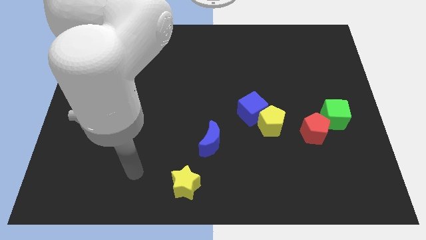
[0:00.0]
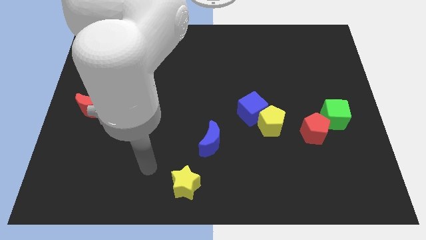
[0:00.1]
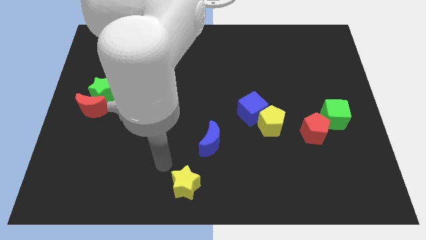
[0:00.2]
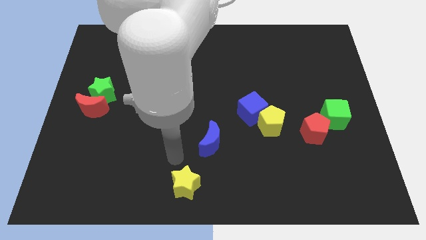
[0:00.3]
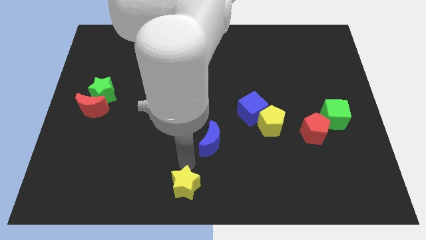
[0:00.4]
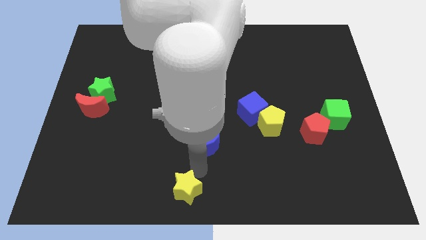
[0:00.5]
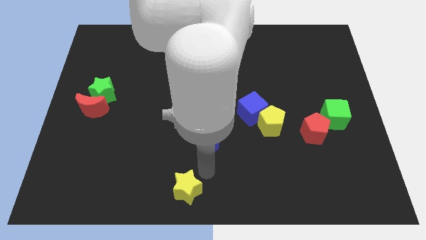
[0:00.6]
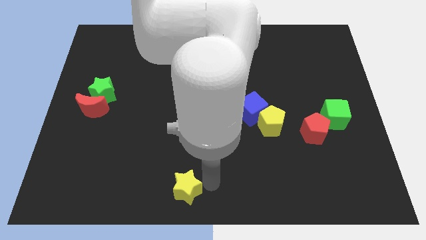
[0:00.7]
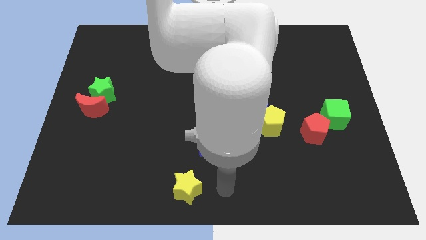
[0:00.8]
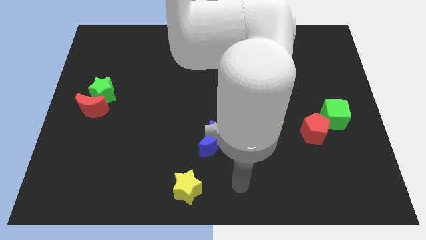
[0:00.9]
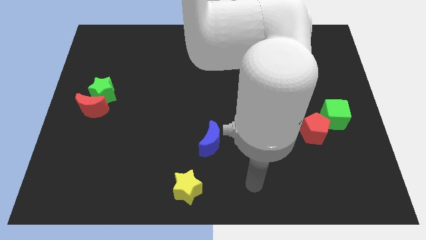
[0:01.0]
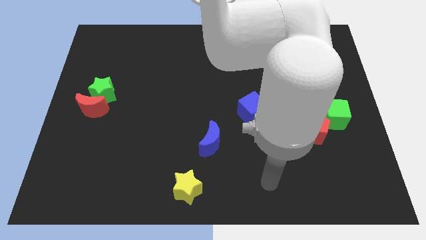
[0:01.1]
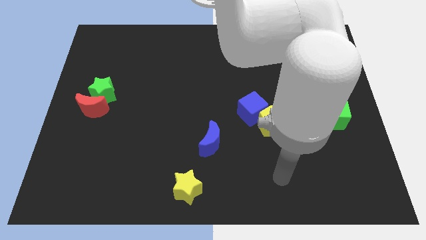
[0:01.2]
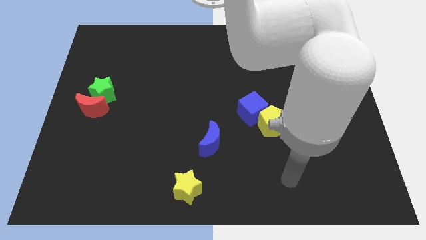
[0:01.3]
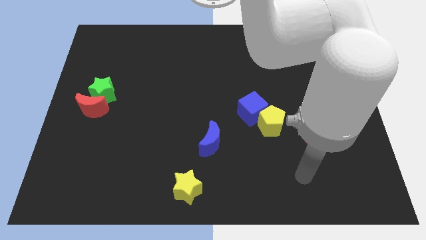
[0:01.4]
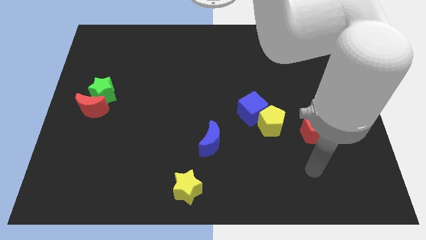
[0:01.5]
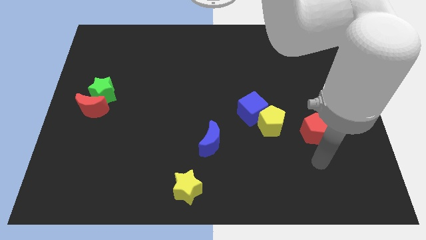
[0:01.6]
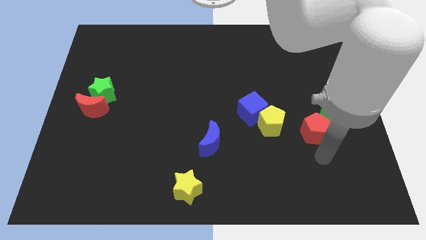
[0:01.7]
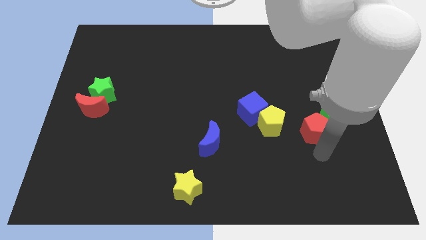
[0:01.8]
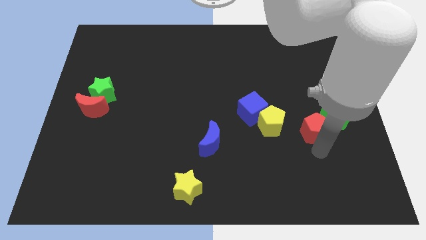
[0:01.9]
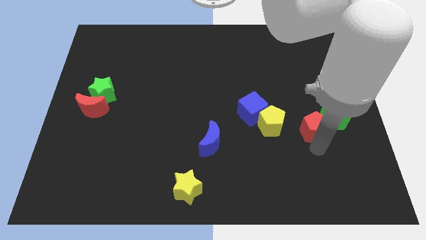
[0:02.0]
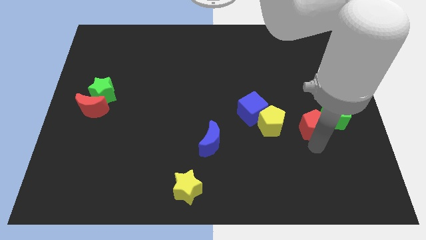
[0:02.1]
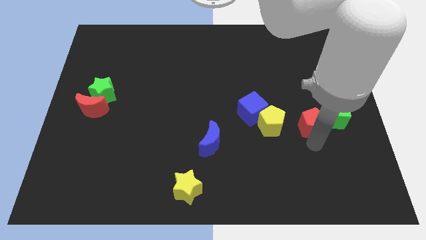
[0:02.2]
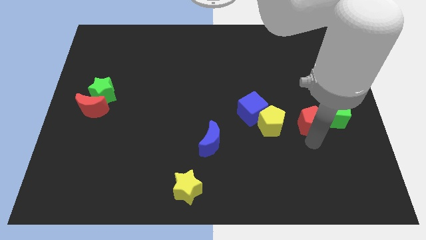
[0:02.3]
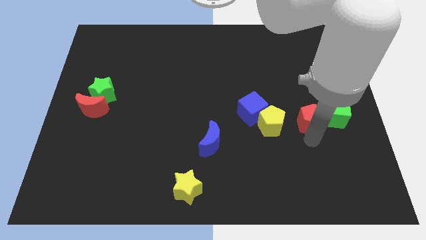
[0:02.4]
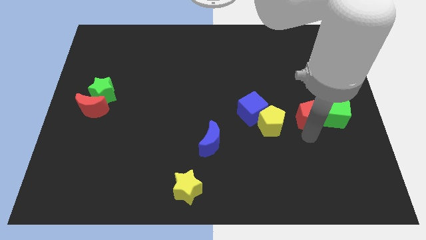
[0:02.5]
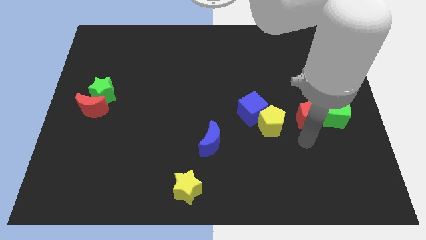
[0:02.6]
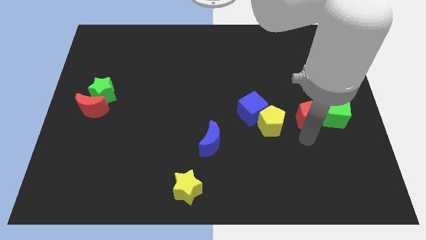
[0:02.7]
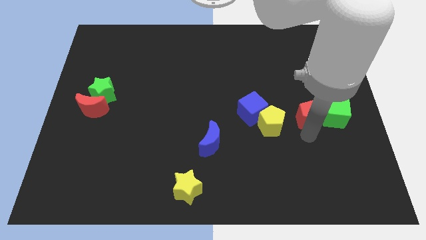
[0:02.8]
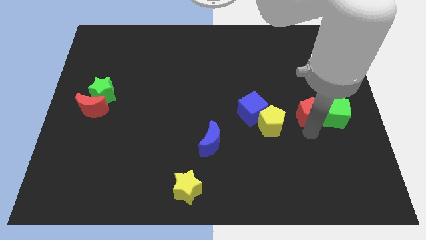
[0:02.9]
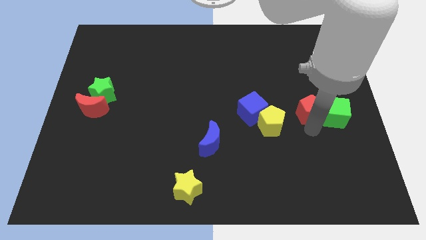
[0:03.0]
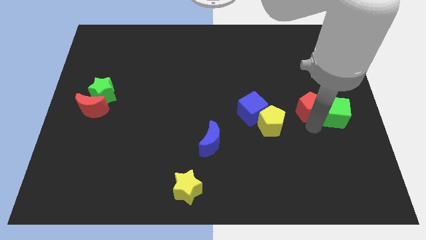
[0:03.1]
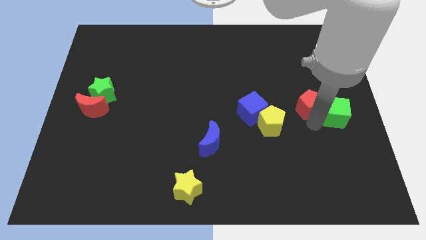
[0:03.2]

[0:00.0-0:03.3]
push the red pentagon upwards a little

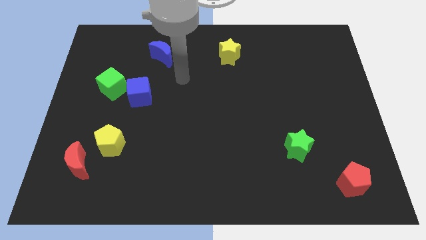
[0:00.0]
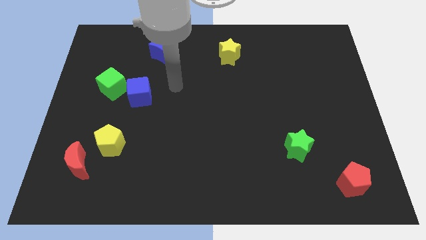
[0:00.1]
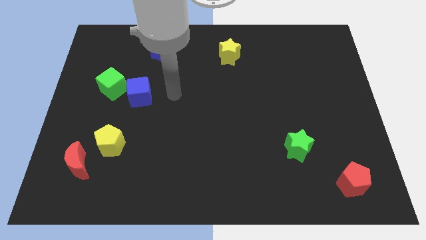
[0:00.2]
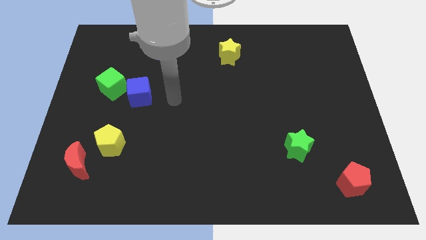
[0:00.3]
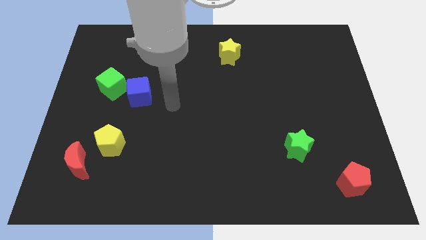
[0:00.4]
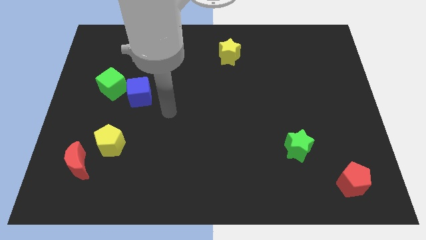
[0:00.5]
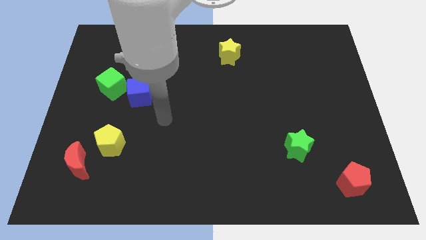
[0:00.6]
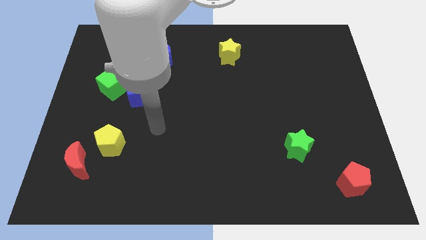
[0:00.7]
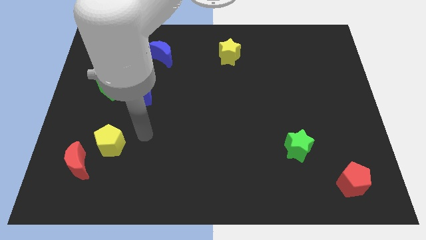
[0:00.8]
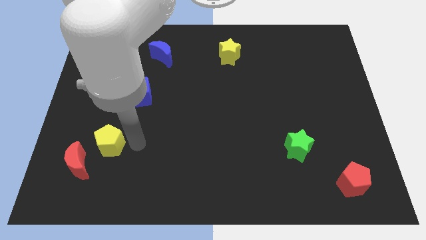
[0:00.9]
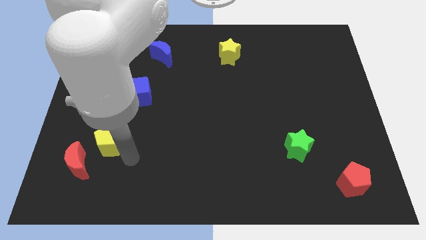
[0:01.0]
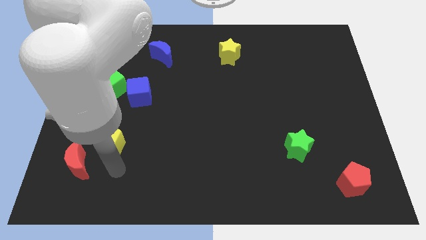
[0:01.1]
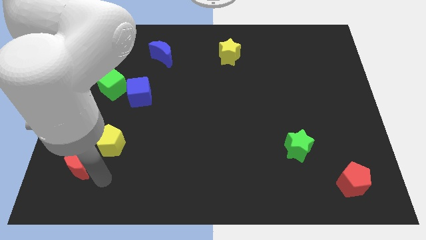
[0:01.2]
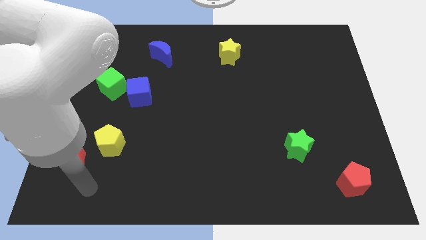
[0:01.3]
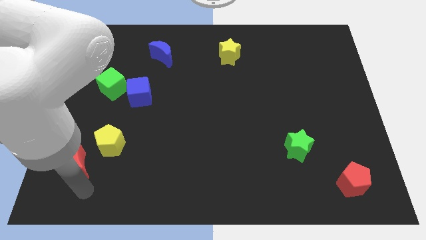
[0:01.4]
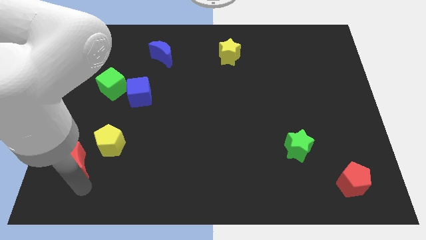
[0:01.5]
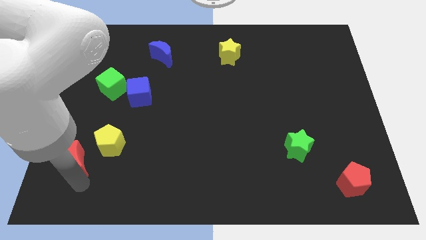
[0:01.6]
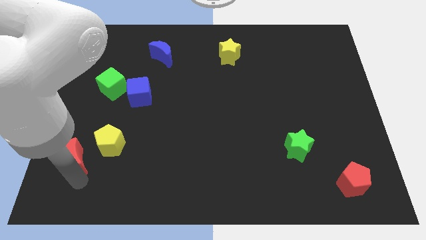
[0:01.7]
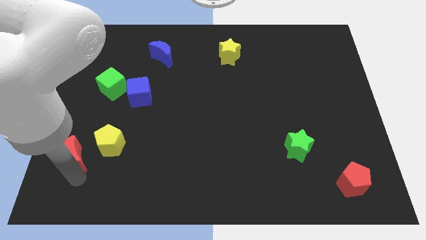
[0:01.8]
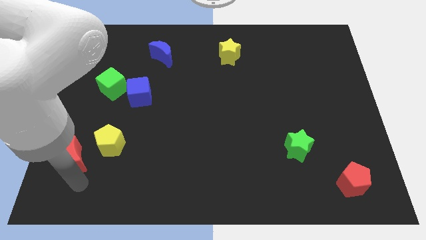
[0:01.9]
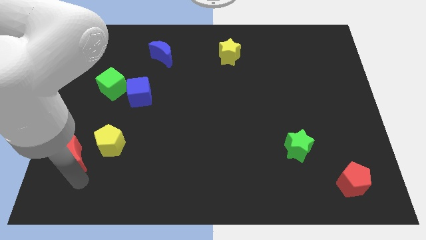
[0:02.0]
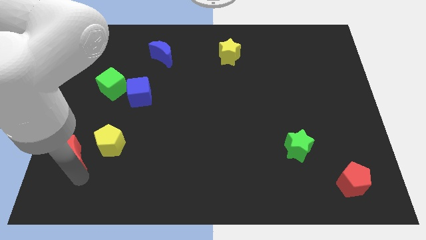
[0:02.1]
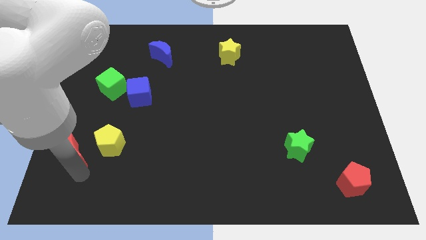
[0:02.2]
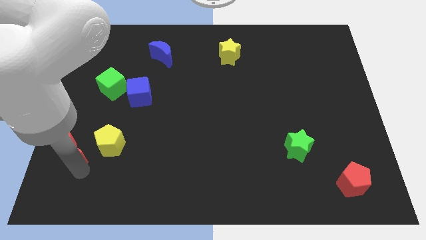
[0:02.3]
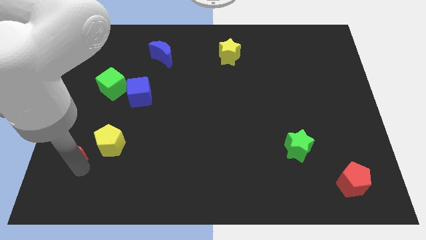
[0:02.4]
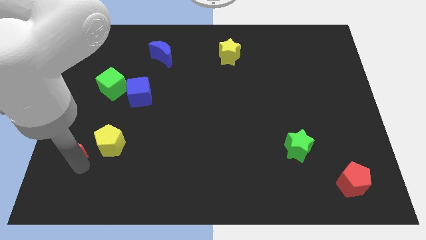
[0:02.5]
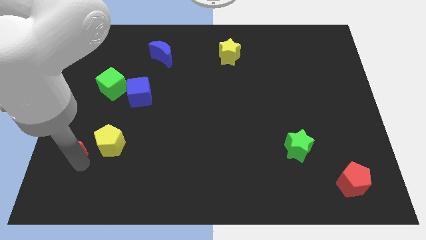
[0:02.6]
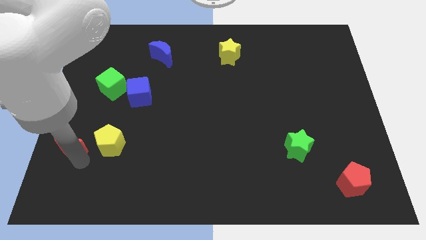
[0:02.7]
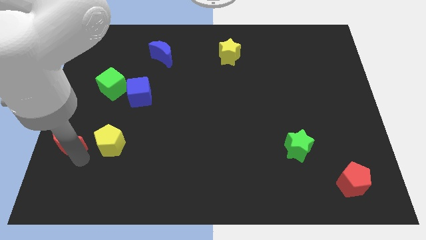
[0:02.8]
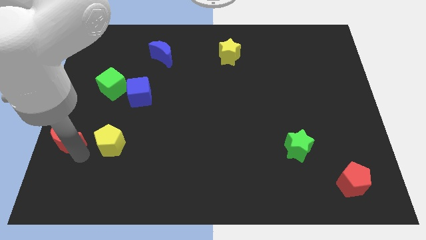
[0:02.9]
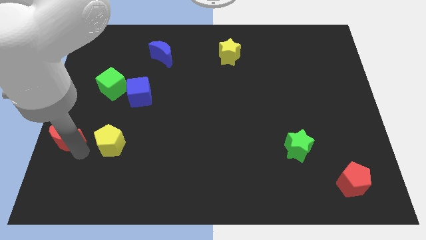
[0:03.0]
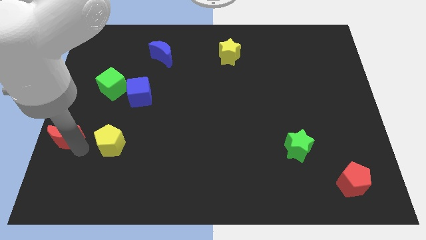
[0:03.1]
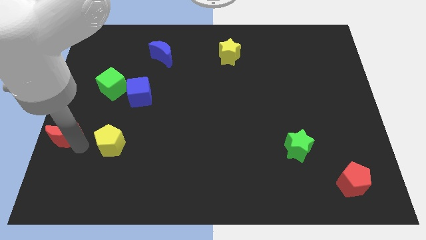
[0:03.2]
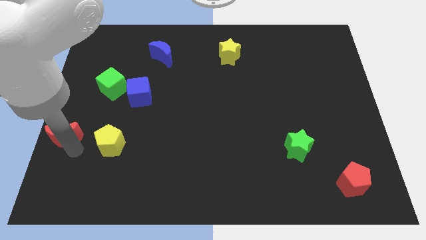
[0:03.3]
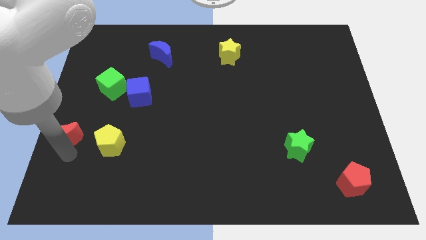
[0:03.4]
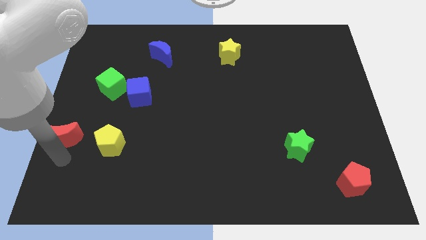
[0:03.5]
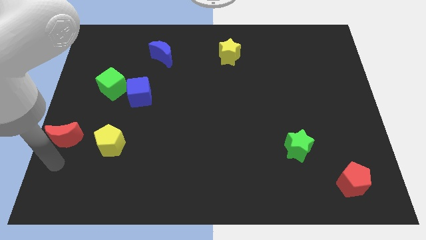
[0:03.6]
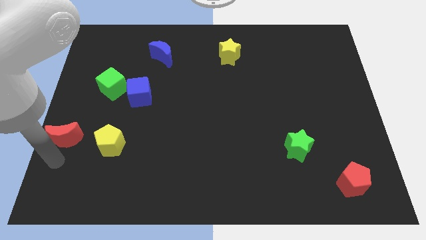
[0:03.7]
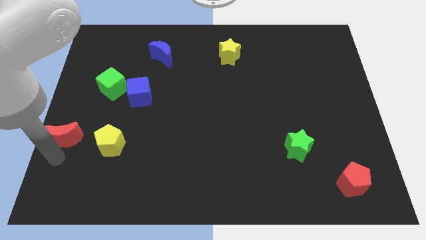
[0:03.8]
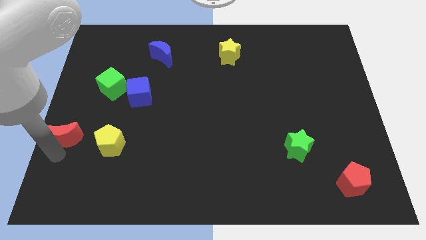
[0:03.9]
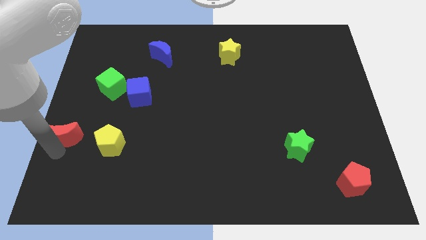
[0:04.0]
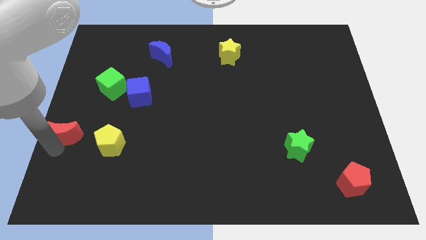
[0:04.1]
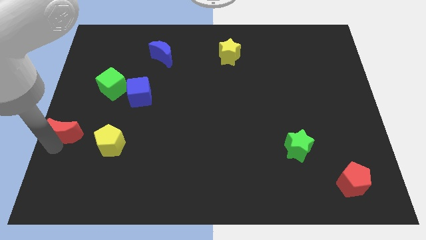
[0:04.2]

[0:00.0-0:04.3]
move the red moon a little upwards
